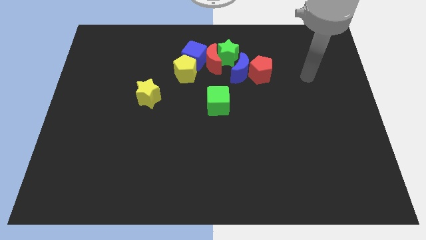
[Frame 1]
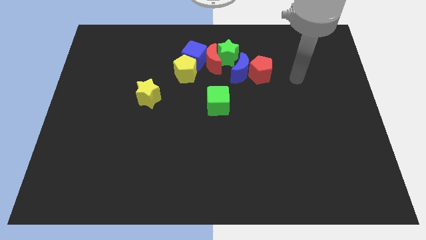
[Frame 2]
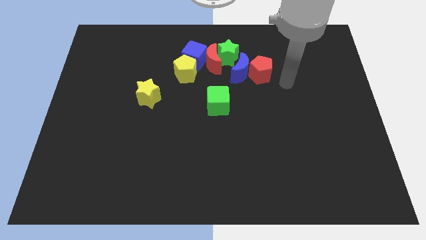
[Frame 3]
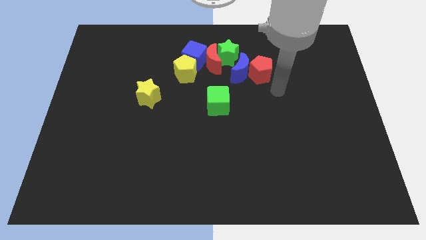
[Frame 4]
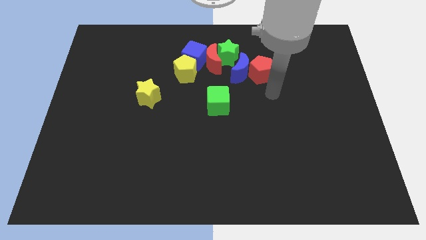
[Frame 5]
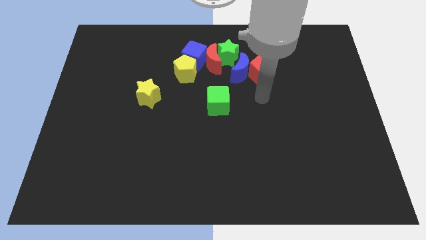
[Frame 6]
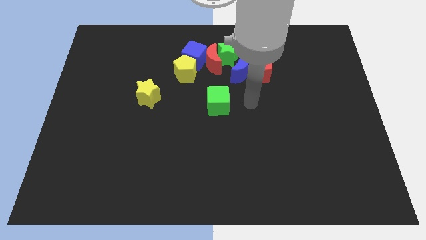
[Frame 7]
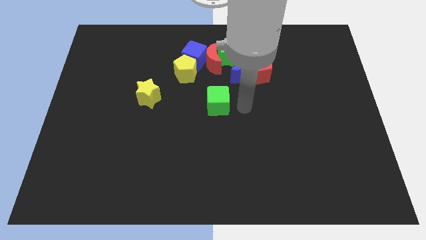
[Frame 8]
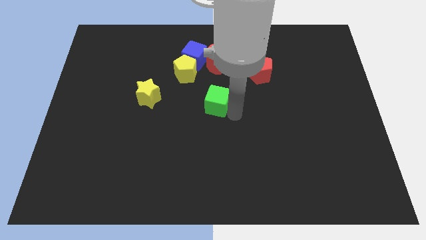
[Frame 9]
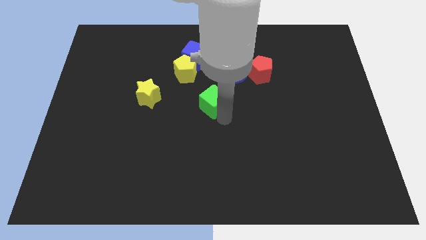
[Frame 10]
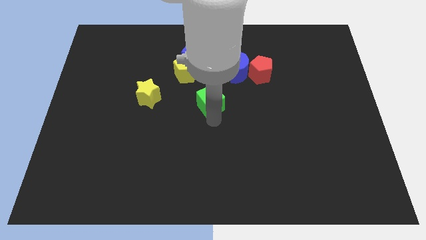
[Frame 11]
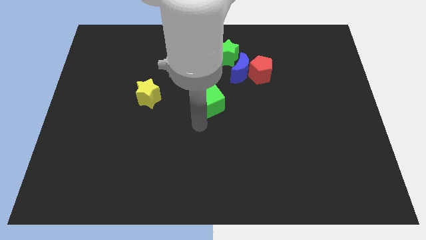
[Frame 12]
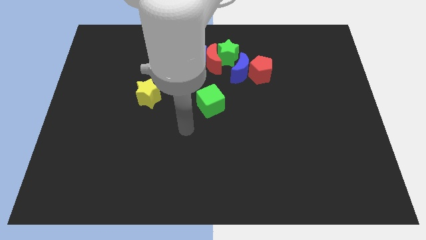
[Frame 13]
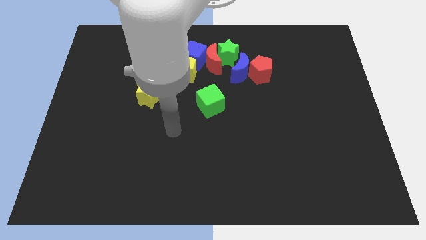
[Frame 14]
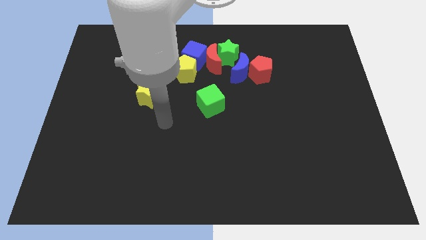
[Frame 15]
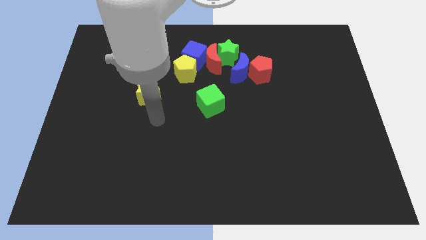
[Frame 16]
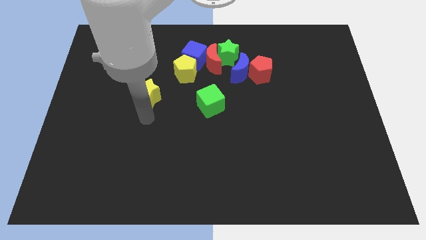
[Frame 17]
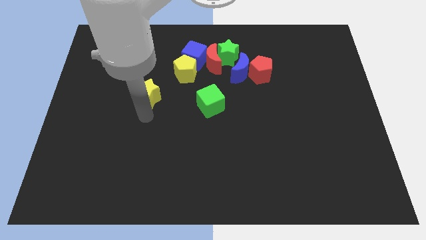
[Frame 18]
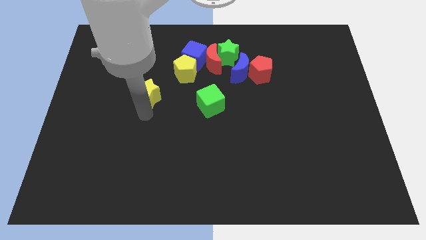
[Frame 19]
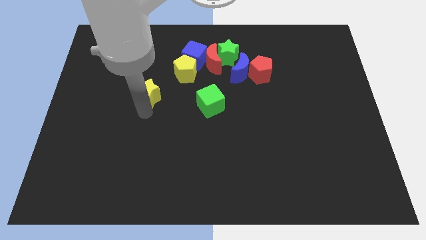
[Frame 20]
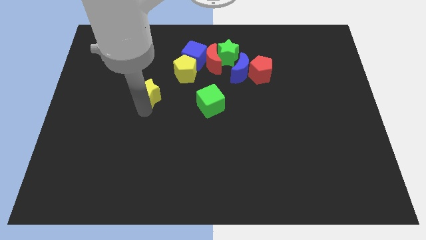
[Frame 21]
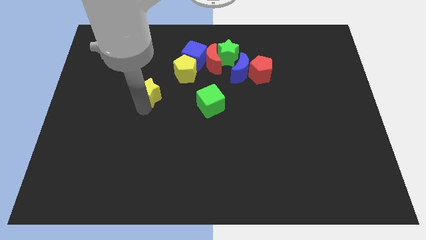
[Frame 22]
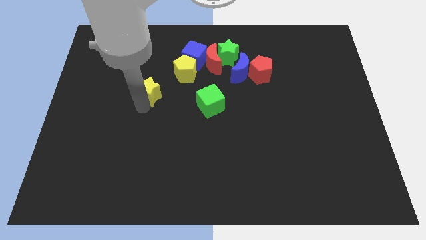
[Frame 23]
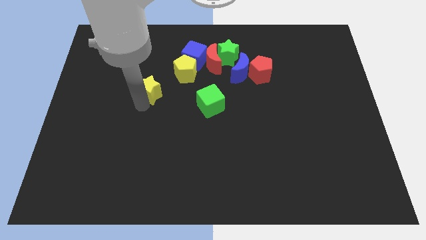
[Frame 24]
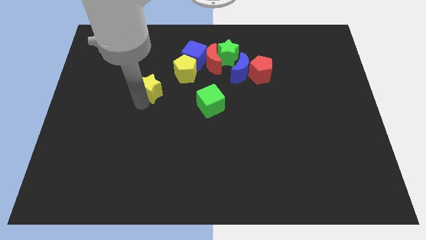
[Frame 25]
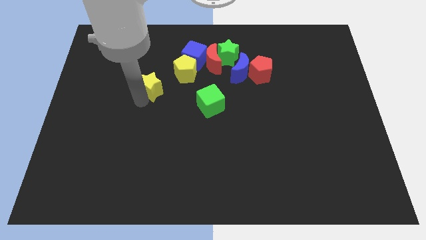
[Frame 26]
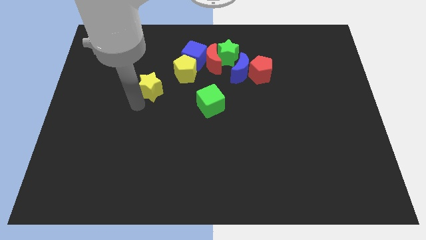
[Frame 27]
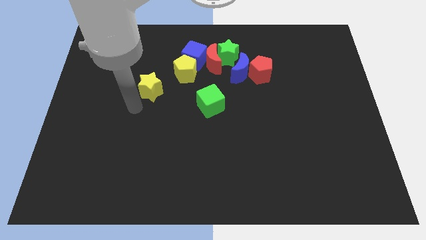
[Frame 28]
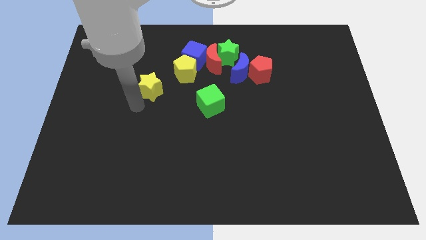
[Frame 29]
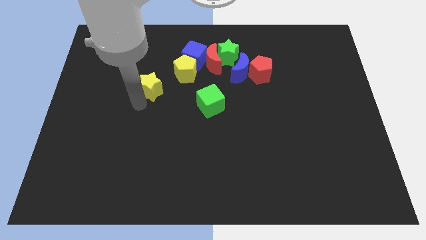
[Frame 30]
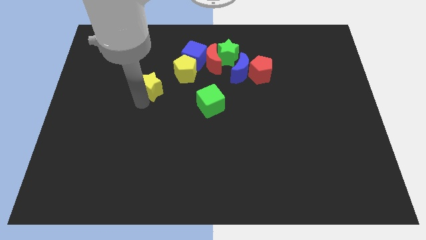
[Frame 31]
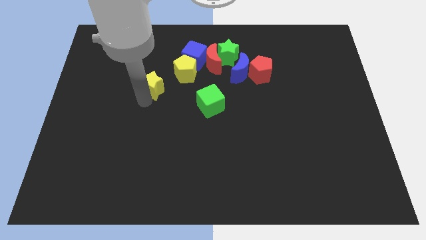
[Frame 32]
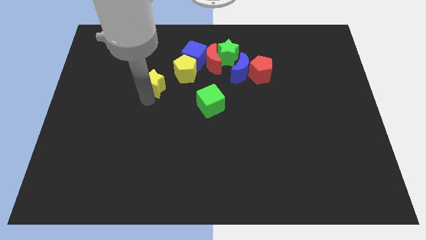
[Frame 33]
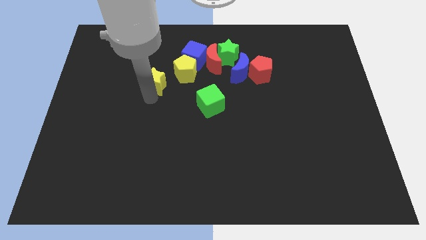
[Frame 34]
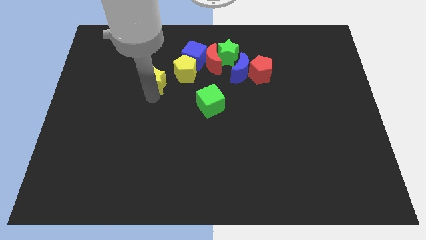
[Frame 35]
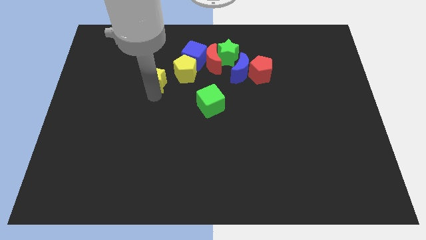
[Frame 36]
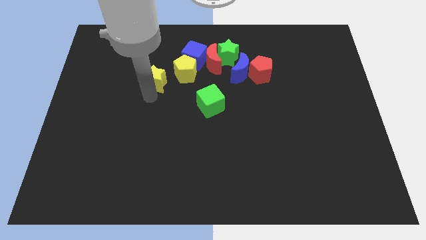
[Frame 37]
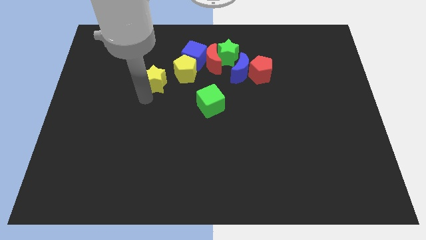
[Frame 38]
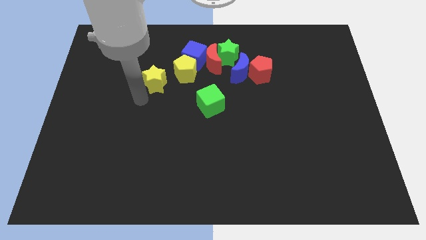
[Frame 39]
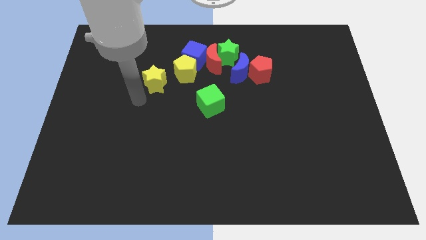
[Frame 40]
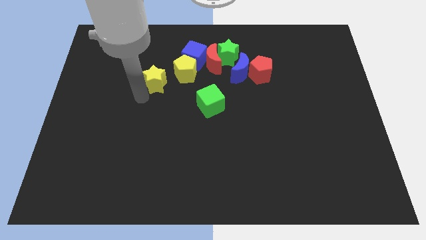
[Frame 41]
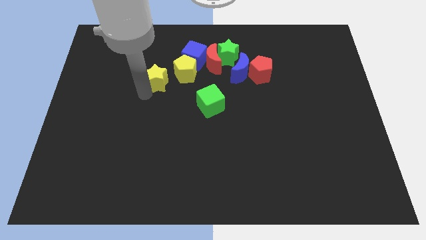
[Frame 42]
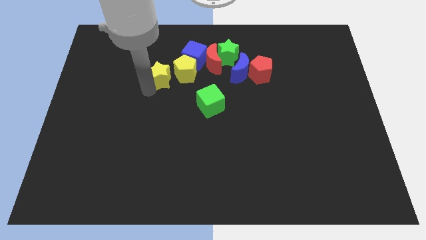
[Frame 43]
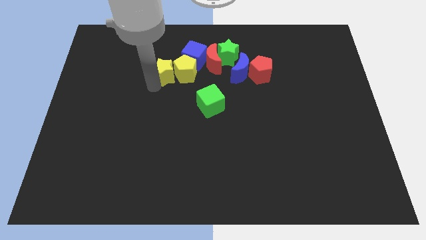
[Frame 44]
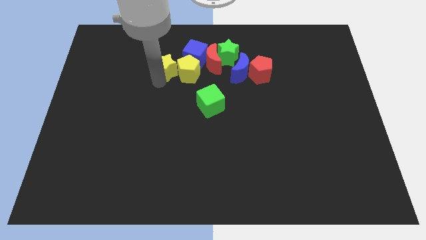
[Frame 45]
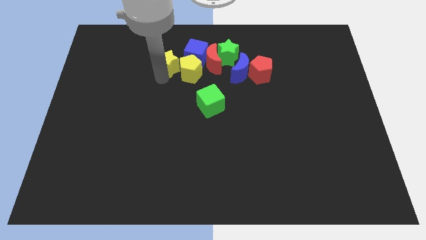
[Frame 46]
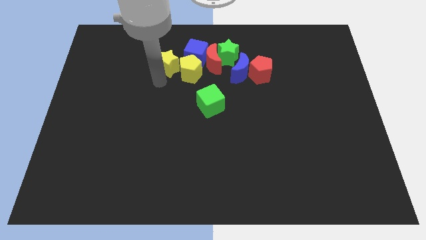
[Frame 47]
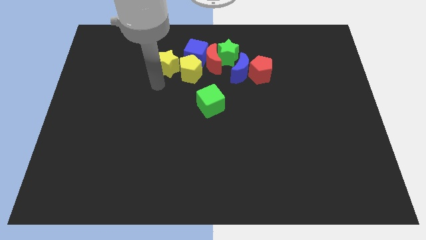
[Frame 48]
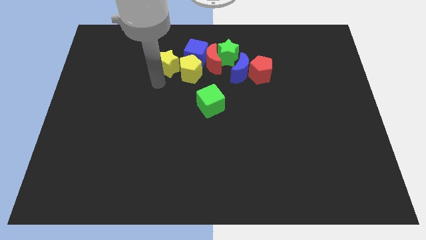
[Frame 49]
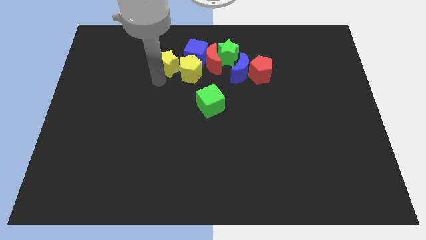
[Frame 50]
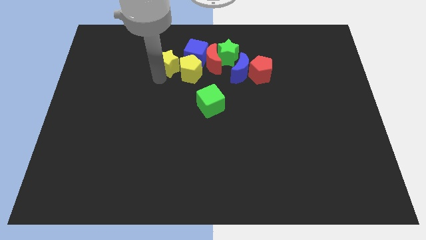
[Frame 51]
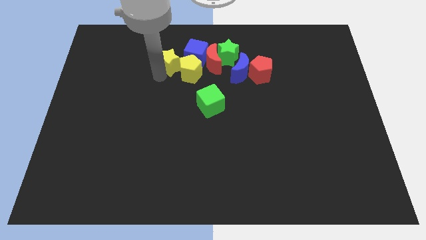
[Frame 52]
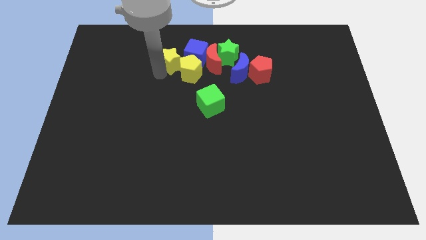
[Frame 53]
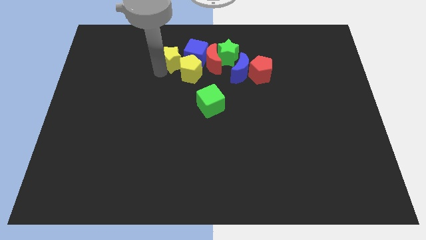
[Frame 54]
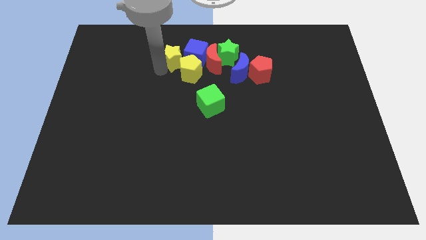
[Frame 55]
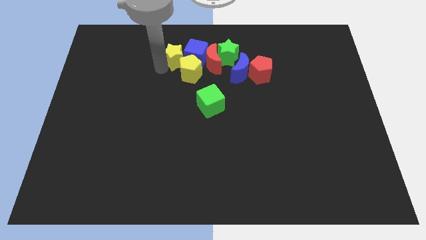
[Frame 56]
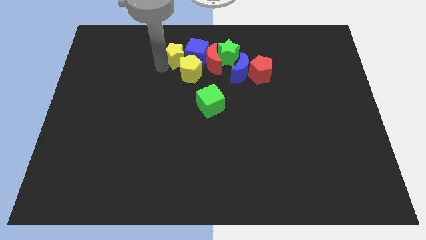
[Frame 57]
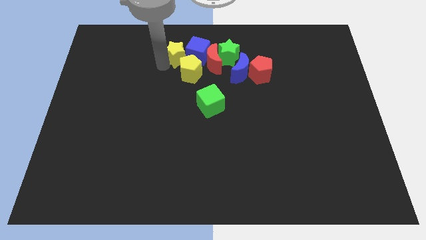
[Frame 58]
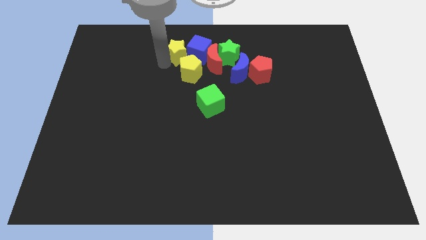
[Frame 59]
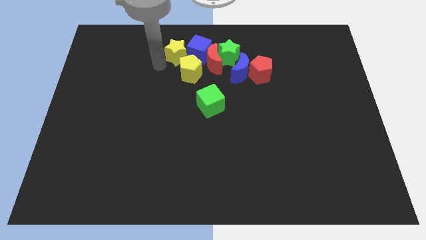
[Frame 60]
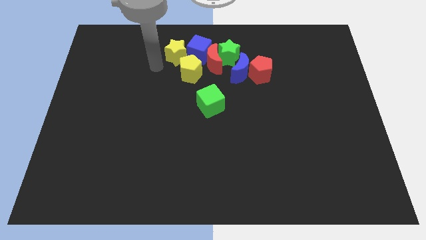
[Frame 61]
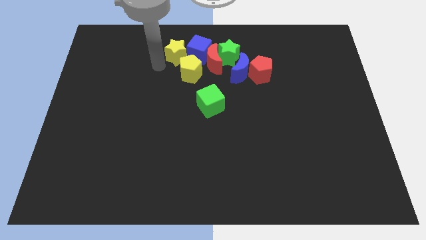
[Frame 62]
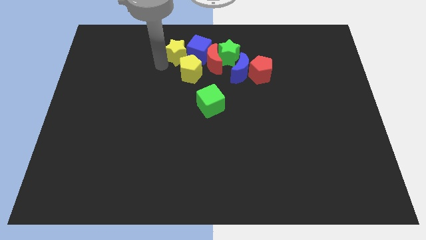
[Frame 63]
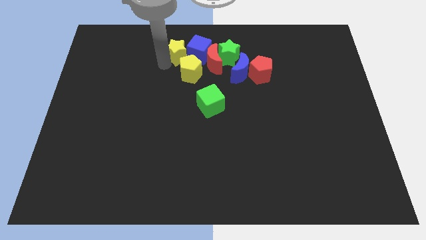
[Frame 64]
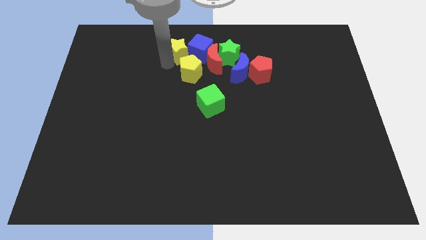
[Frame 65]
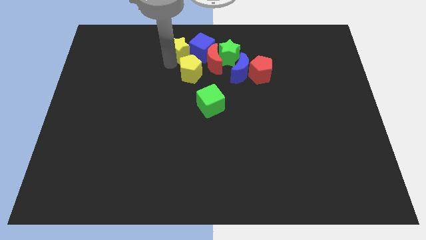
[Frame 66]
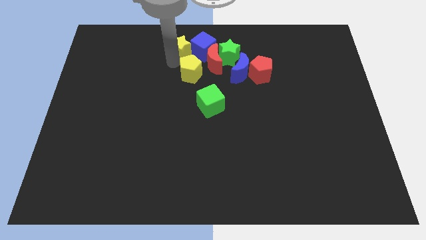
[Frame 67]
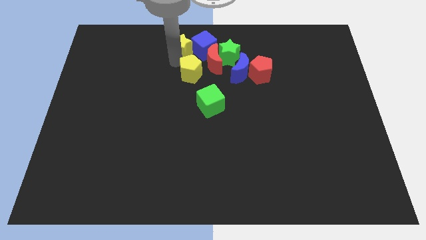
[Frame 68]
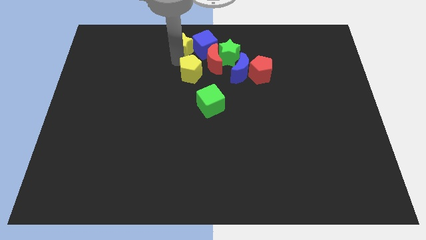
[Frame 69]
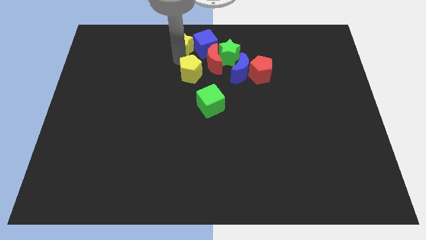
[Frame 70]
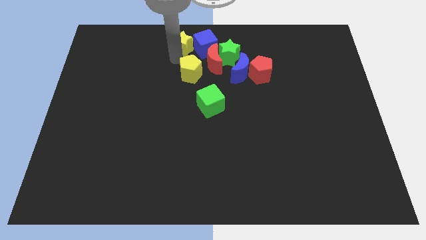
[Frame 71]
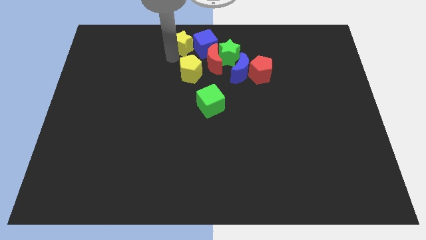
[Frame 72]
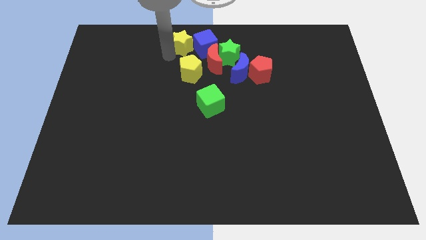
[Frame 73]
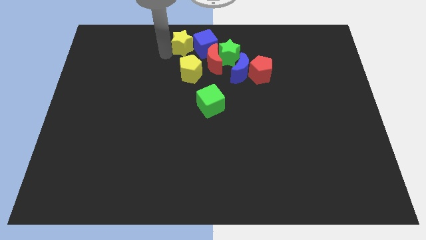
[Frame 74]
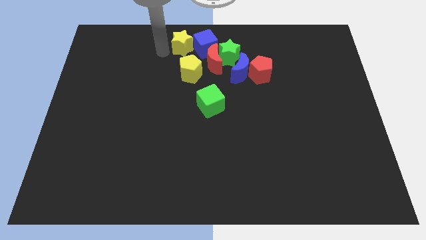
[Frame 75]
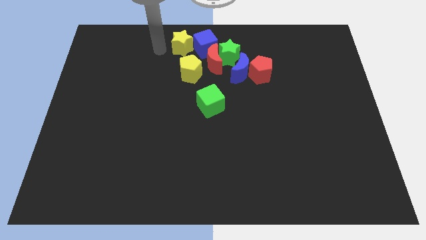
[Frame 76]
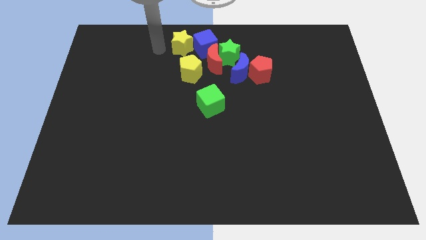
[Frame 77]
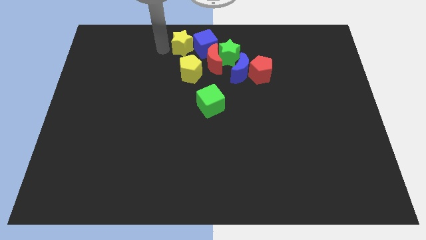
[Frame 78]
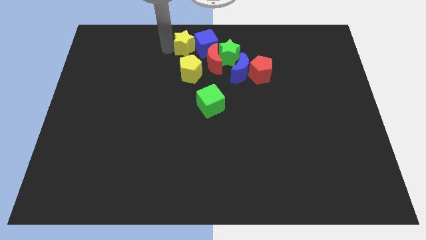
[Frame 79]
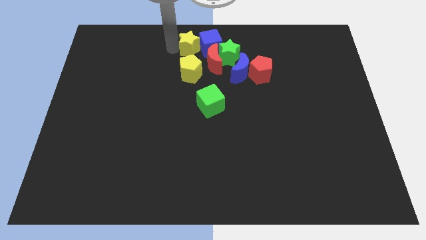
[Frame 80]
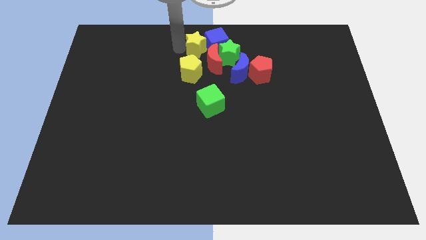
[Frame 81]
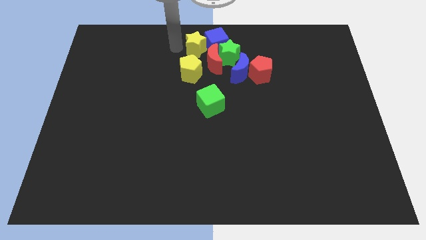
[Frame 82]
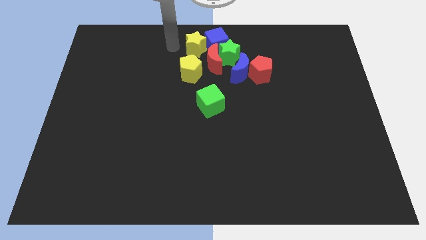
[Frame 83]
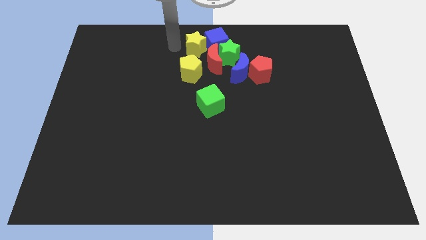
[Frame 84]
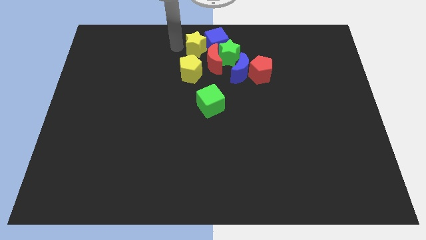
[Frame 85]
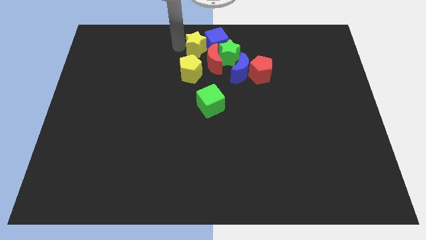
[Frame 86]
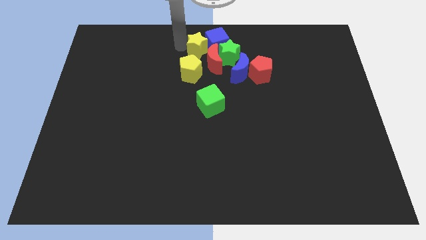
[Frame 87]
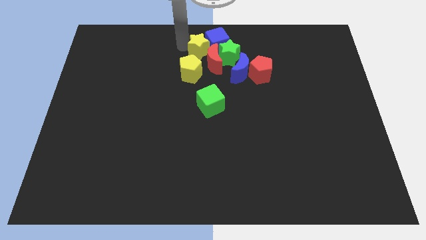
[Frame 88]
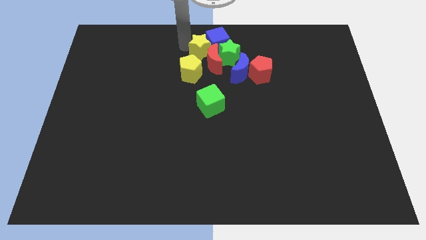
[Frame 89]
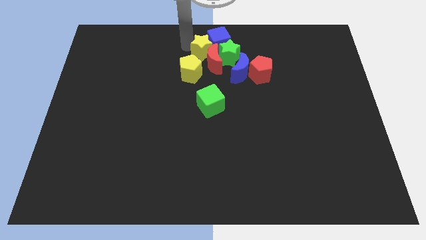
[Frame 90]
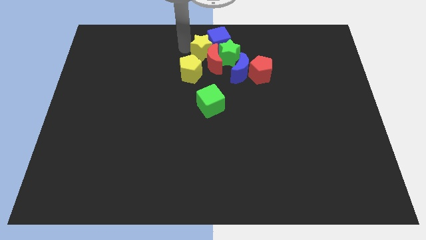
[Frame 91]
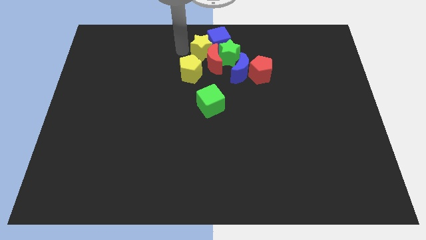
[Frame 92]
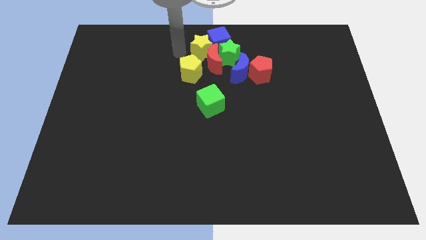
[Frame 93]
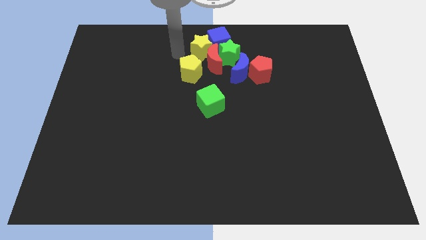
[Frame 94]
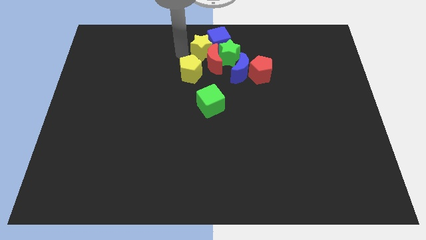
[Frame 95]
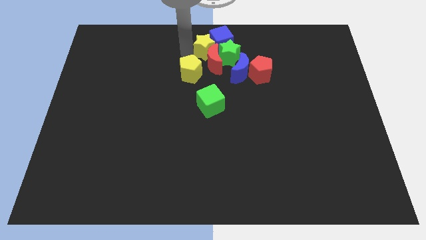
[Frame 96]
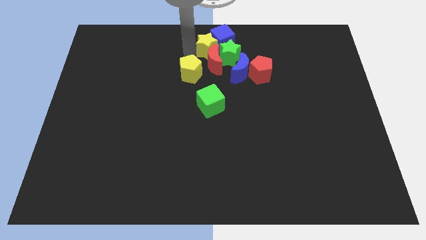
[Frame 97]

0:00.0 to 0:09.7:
move the yellow star next to the green star
